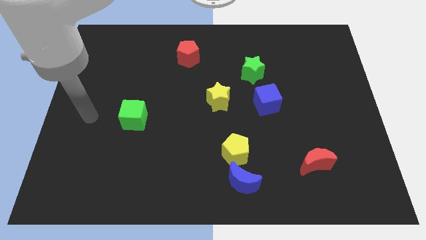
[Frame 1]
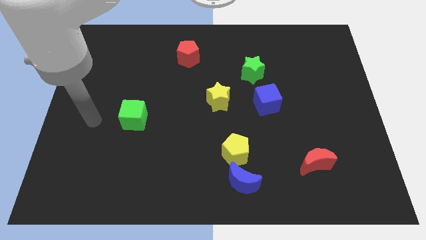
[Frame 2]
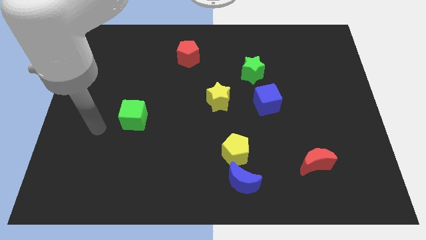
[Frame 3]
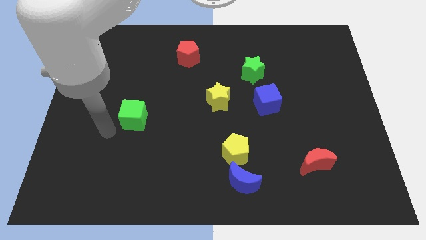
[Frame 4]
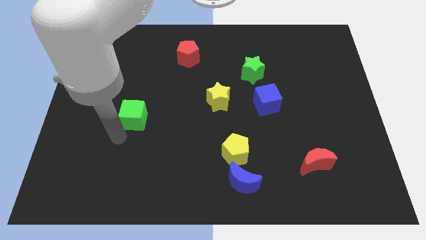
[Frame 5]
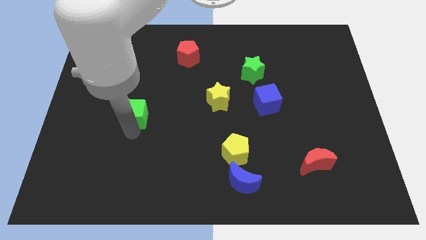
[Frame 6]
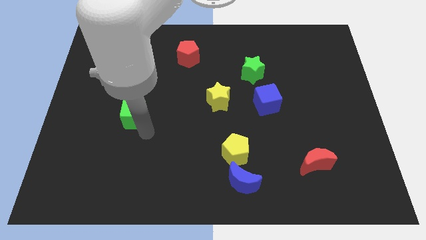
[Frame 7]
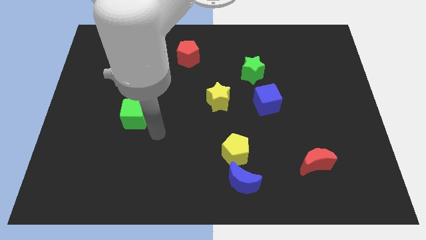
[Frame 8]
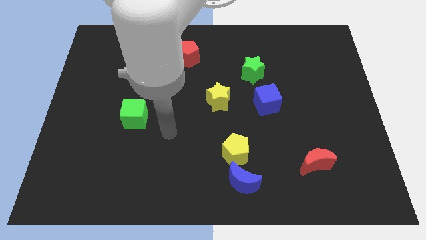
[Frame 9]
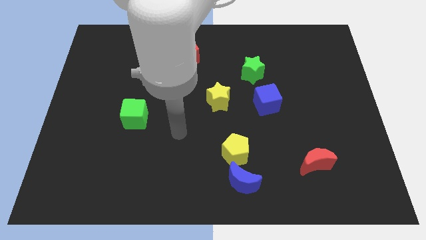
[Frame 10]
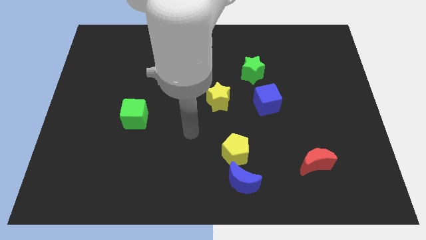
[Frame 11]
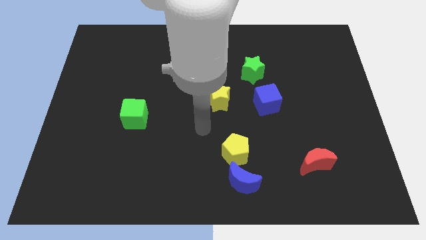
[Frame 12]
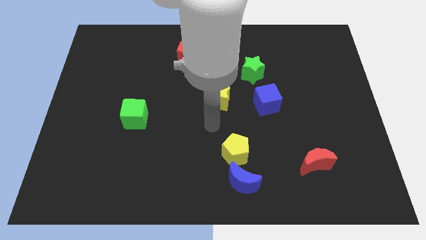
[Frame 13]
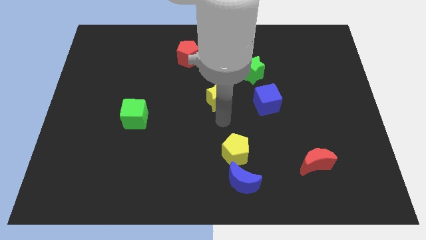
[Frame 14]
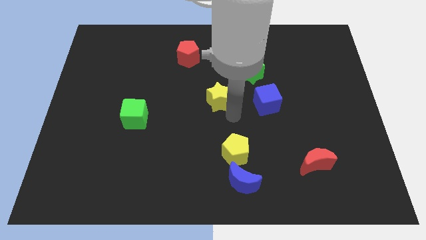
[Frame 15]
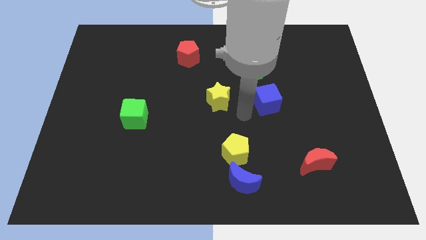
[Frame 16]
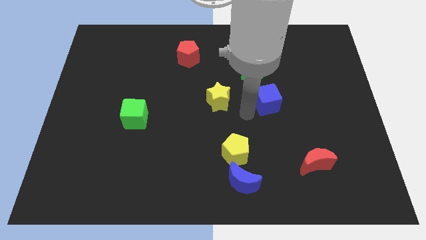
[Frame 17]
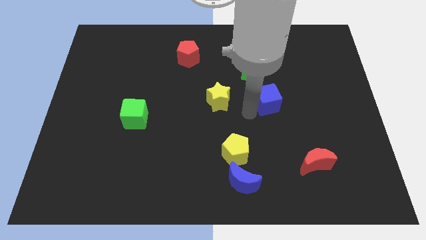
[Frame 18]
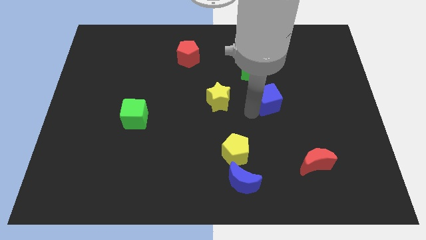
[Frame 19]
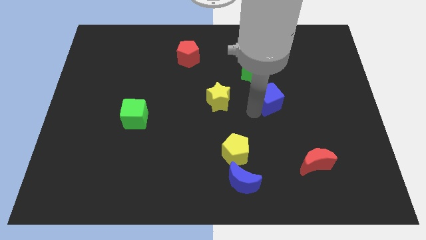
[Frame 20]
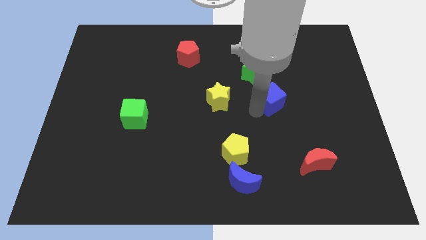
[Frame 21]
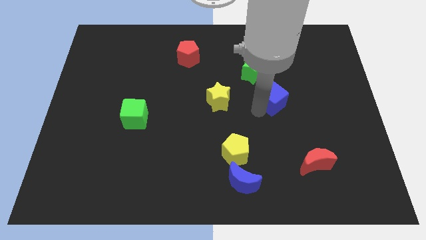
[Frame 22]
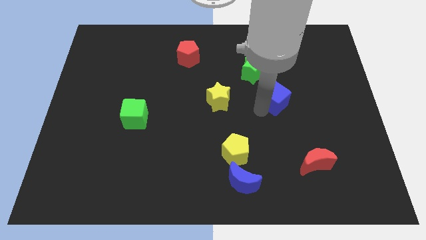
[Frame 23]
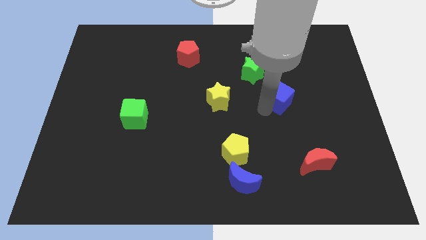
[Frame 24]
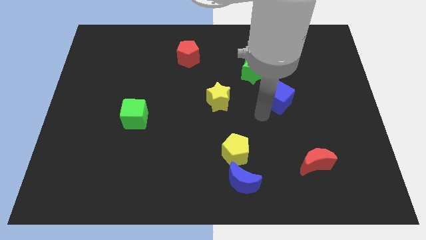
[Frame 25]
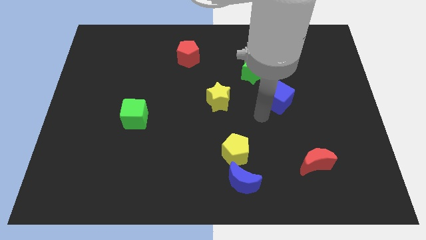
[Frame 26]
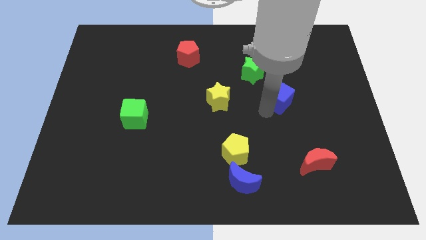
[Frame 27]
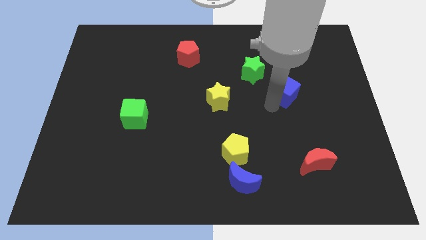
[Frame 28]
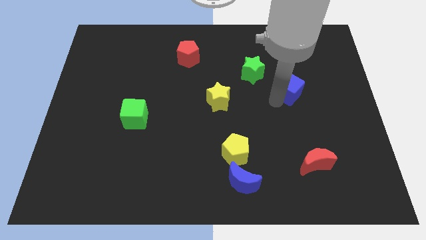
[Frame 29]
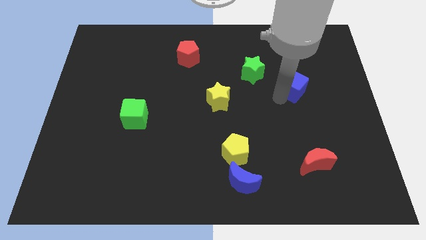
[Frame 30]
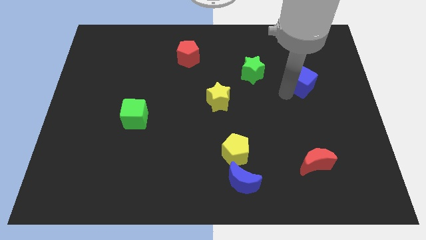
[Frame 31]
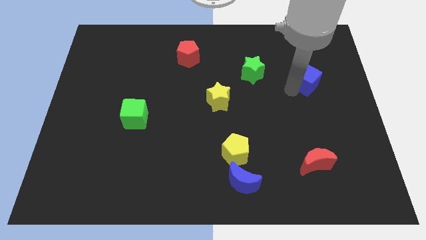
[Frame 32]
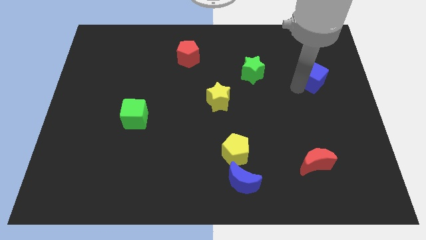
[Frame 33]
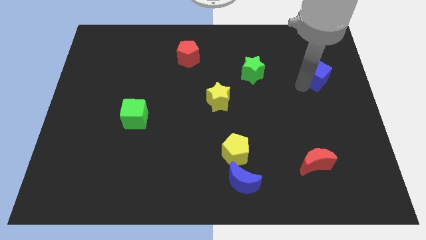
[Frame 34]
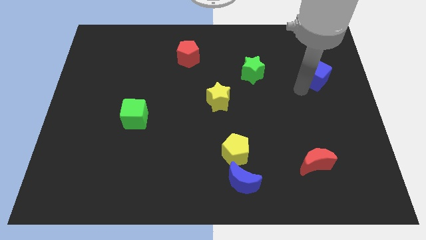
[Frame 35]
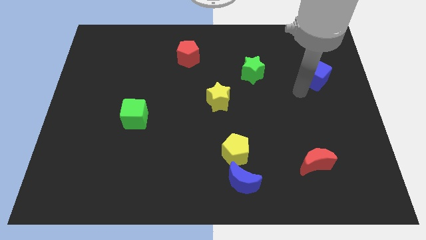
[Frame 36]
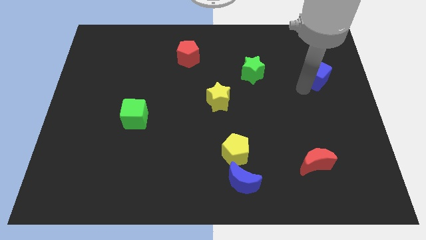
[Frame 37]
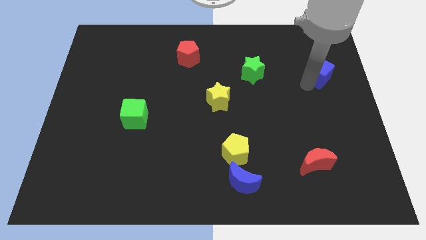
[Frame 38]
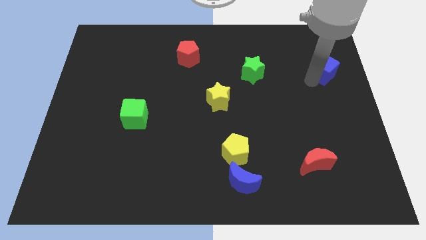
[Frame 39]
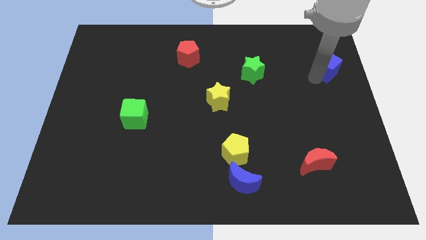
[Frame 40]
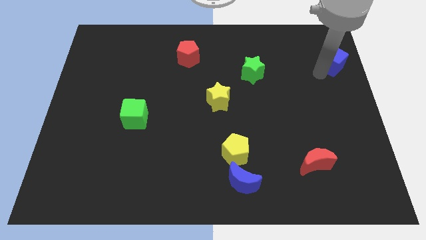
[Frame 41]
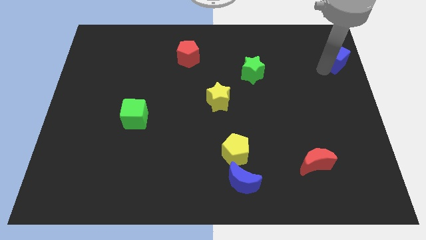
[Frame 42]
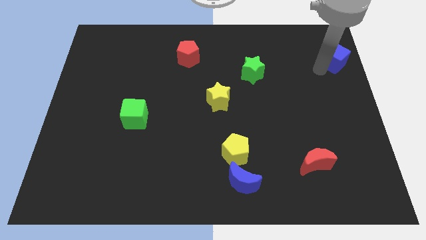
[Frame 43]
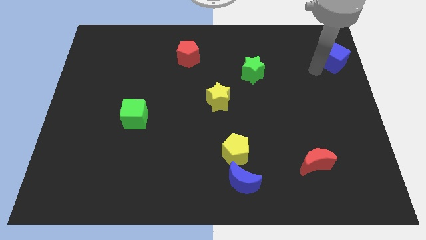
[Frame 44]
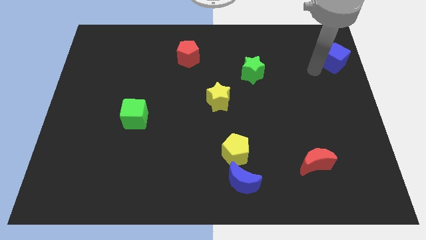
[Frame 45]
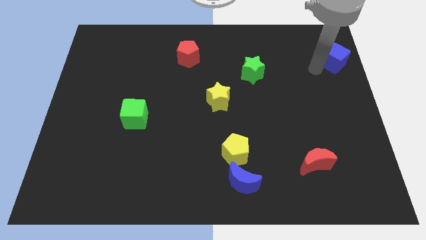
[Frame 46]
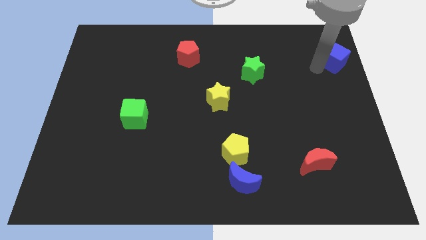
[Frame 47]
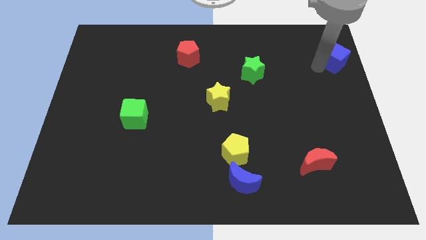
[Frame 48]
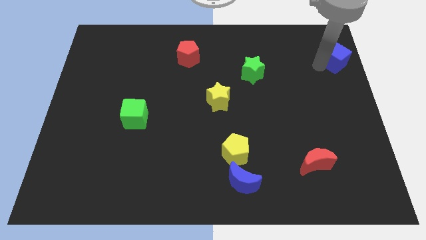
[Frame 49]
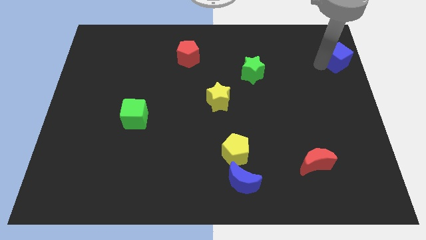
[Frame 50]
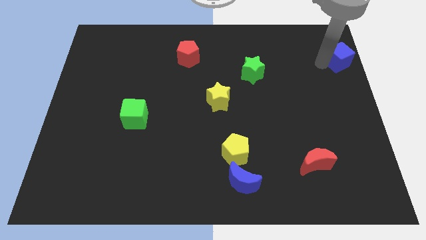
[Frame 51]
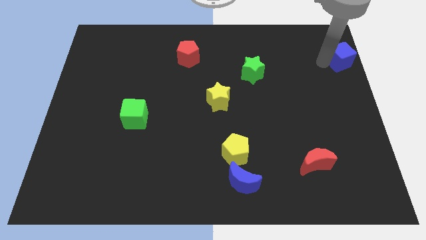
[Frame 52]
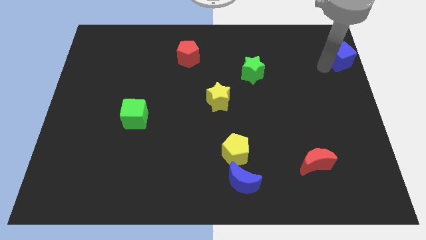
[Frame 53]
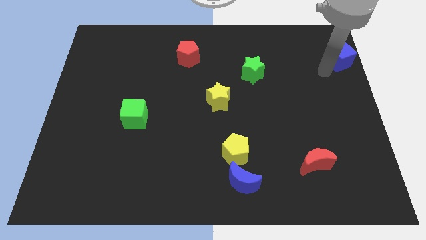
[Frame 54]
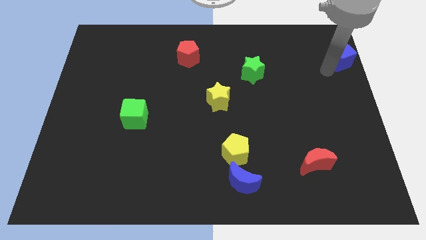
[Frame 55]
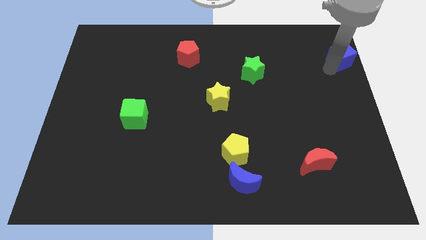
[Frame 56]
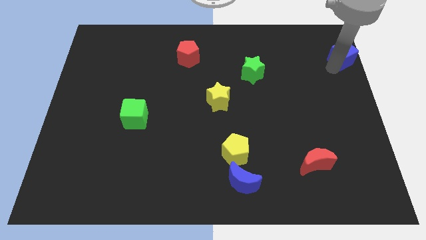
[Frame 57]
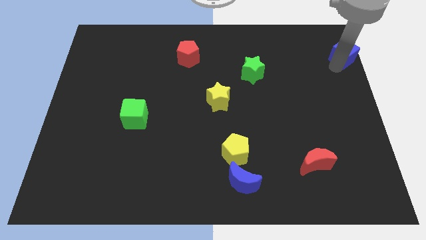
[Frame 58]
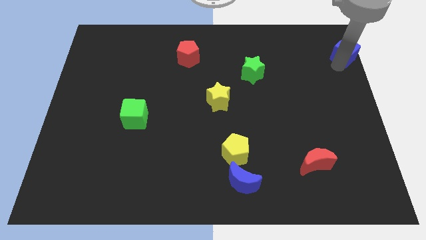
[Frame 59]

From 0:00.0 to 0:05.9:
move the blue cube to the upper right corner

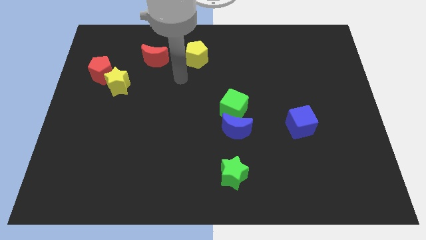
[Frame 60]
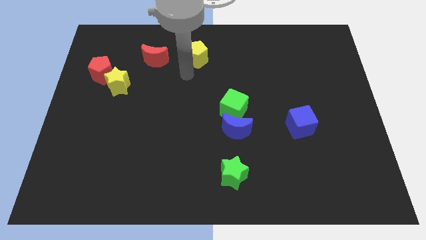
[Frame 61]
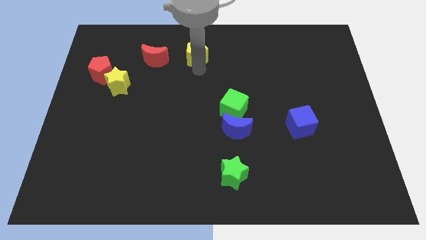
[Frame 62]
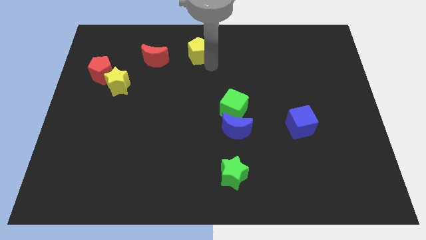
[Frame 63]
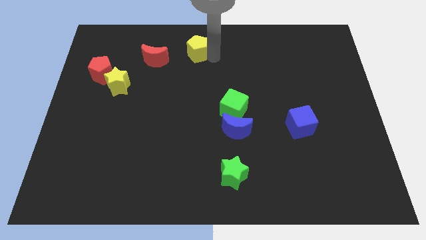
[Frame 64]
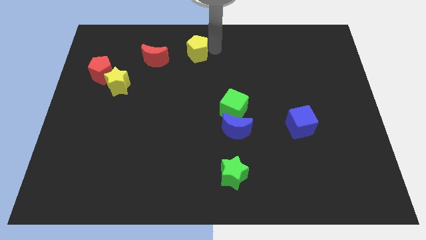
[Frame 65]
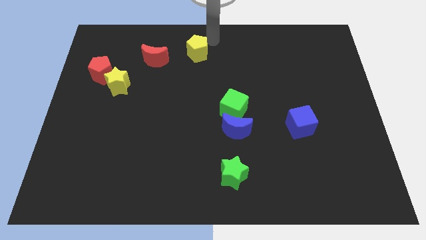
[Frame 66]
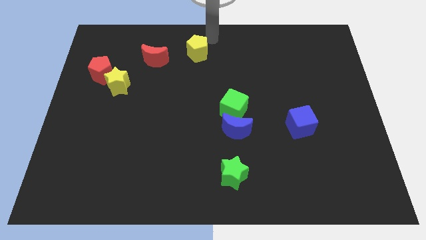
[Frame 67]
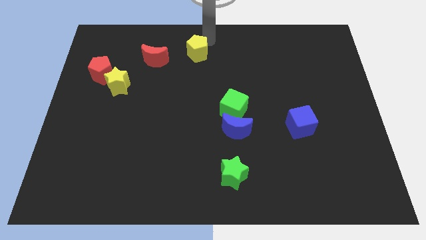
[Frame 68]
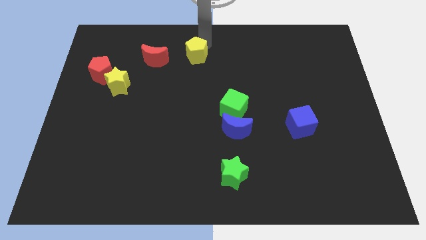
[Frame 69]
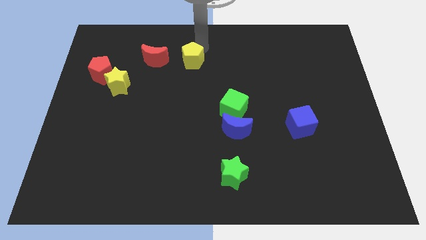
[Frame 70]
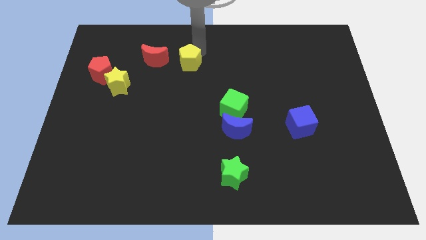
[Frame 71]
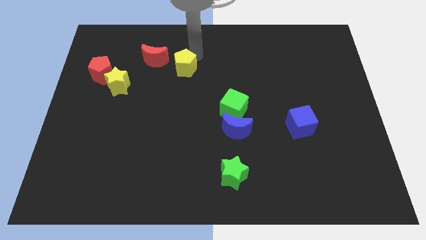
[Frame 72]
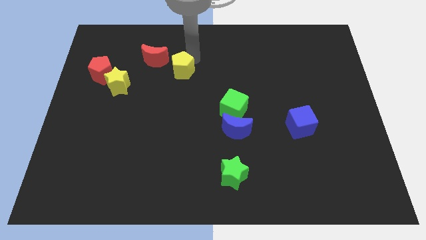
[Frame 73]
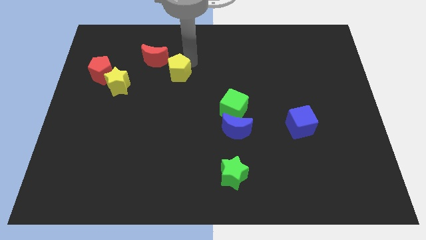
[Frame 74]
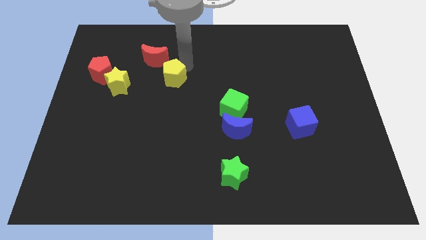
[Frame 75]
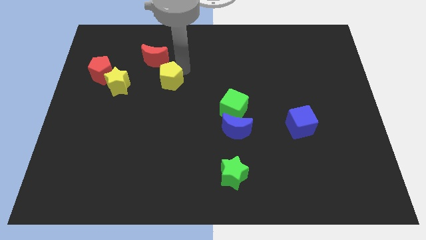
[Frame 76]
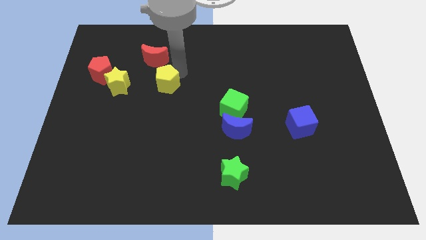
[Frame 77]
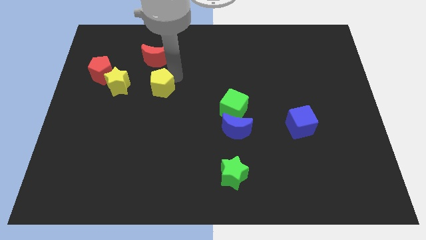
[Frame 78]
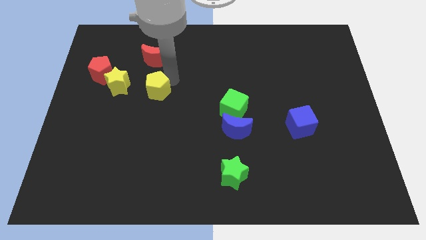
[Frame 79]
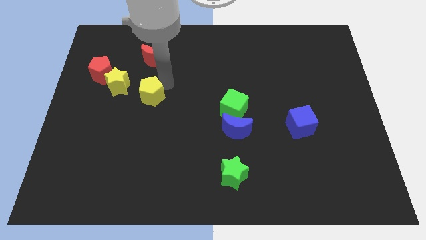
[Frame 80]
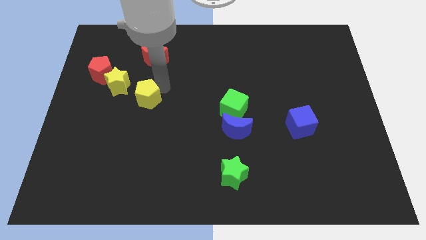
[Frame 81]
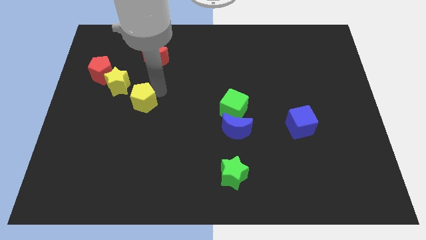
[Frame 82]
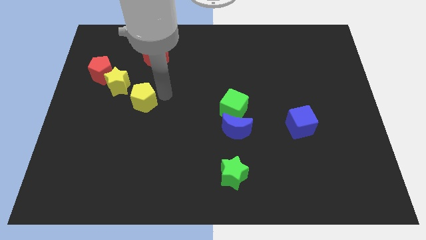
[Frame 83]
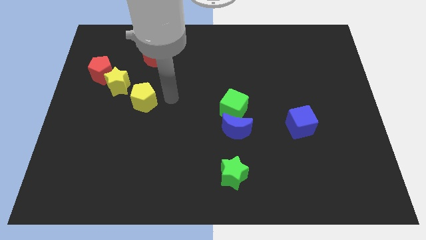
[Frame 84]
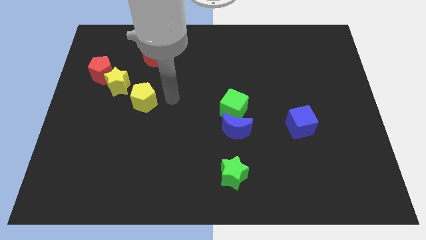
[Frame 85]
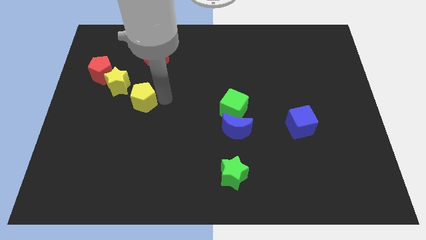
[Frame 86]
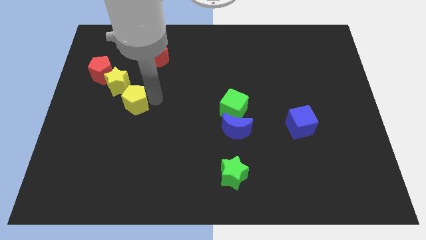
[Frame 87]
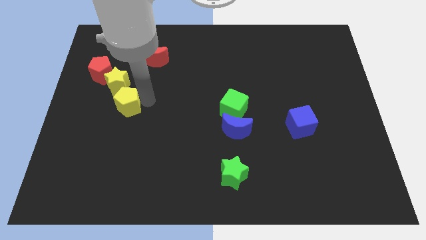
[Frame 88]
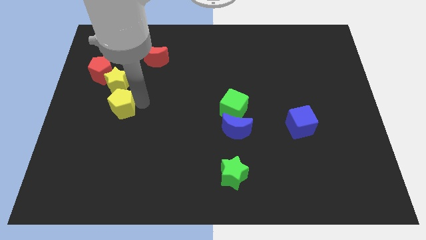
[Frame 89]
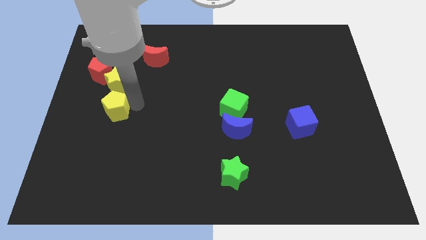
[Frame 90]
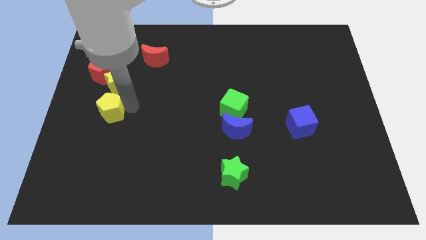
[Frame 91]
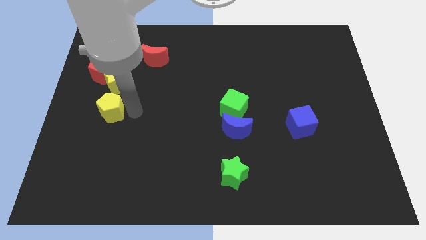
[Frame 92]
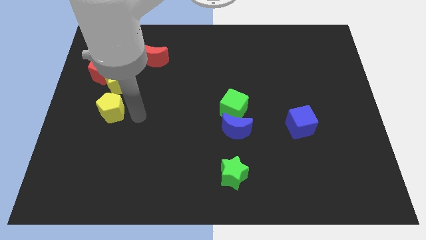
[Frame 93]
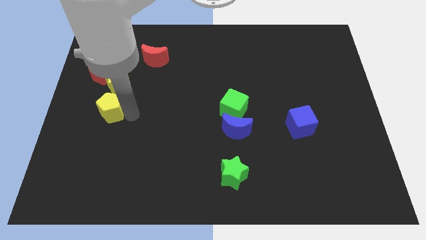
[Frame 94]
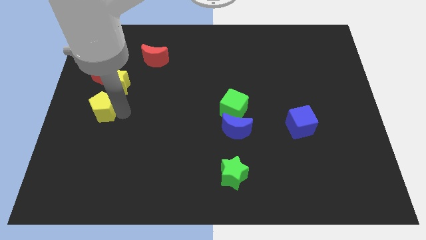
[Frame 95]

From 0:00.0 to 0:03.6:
push the yellow pentagon to the center left
